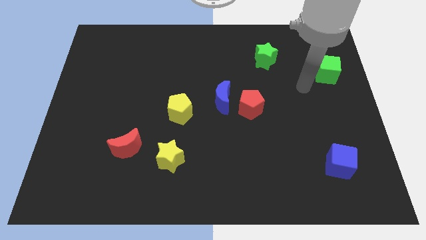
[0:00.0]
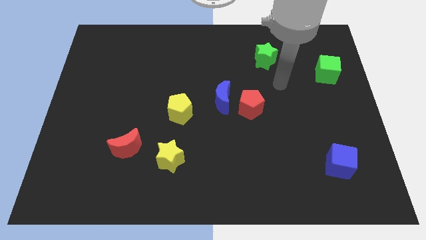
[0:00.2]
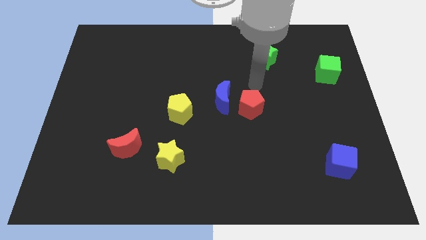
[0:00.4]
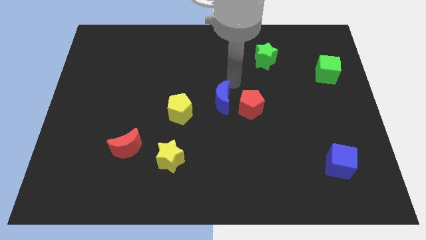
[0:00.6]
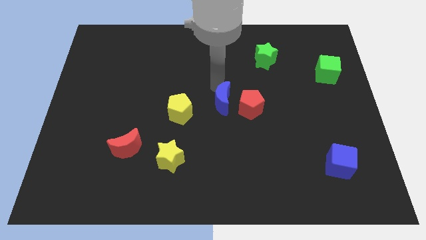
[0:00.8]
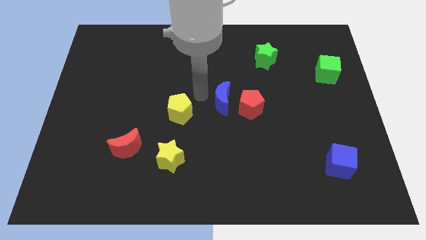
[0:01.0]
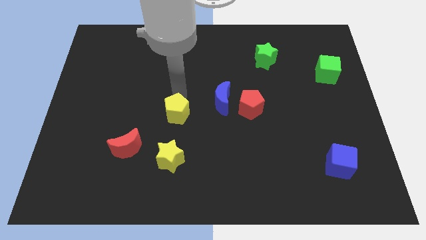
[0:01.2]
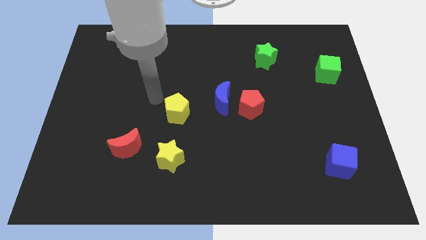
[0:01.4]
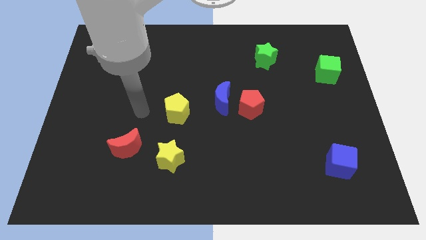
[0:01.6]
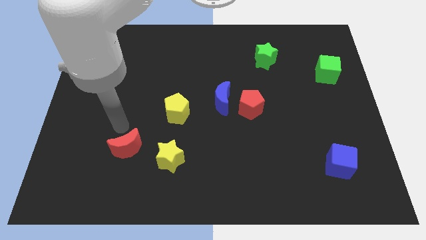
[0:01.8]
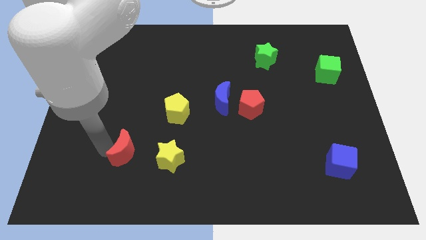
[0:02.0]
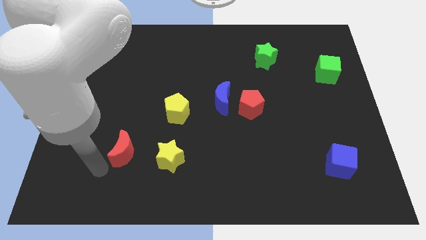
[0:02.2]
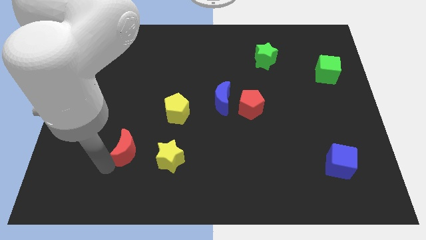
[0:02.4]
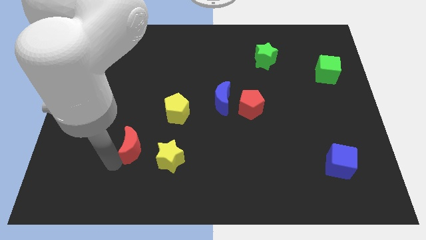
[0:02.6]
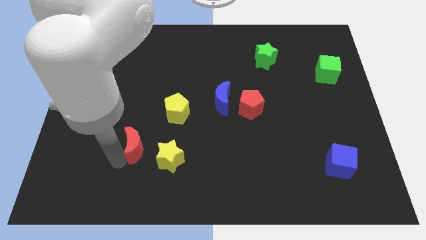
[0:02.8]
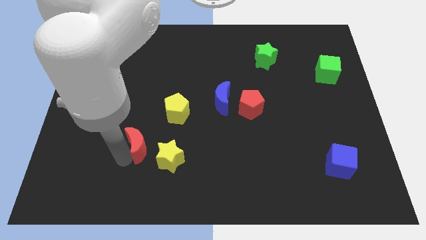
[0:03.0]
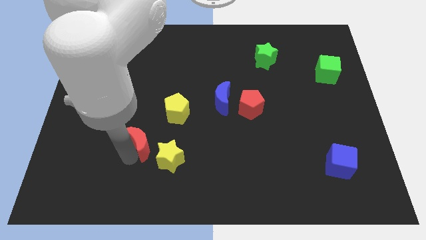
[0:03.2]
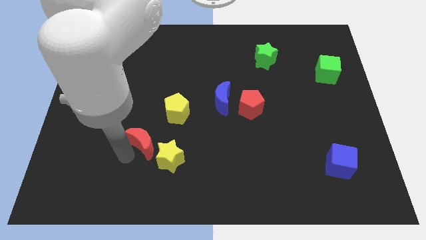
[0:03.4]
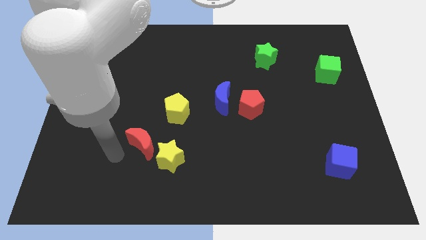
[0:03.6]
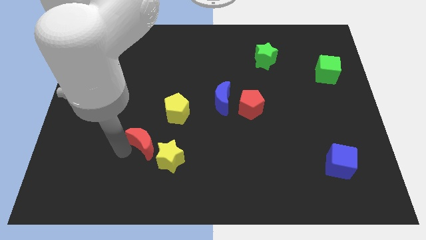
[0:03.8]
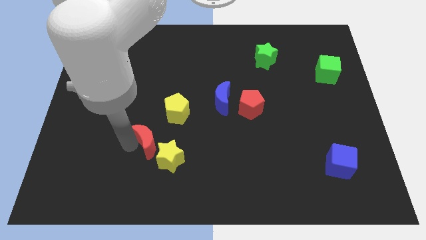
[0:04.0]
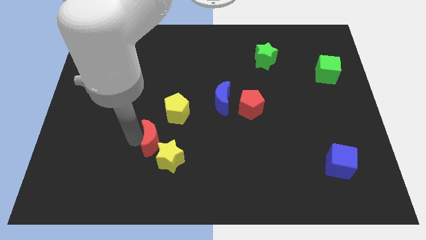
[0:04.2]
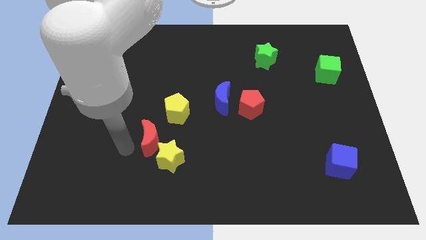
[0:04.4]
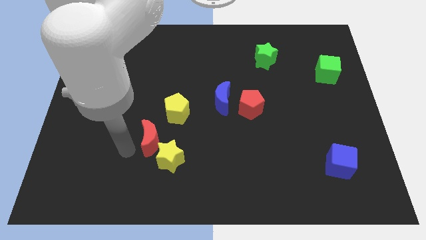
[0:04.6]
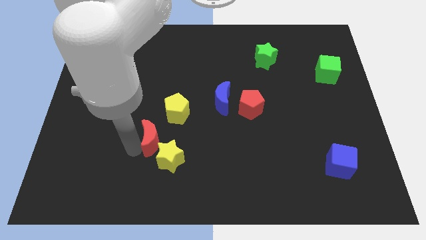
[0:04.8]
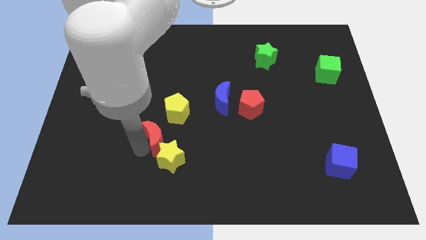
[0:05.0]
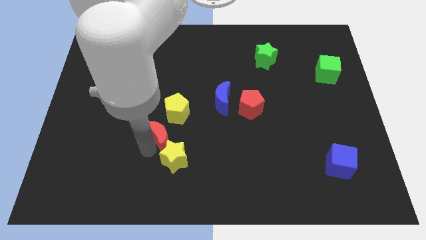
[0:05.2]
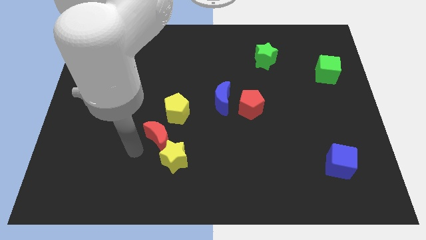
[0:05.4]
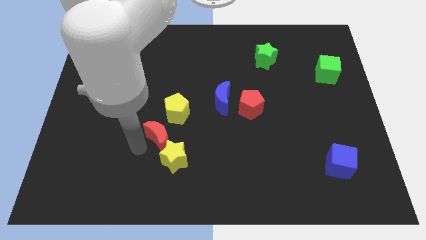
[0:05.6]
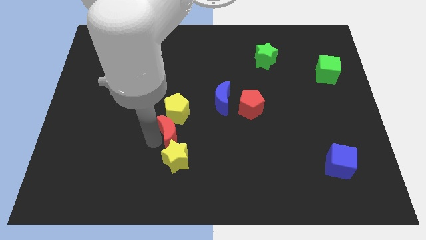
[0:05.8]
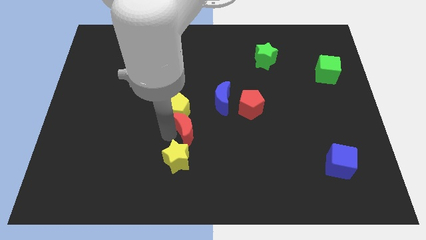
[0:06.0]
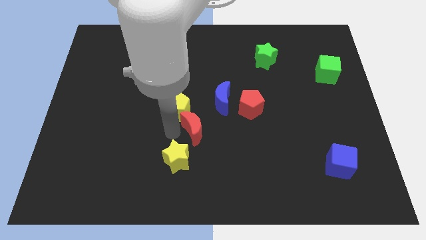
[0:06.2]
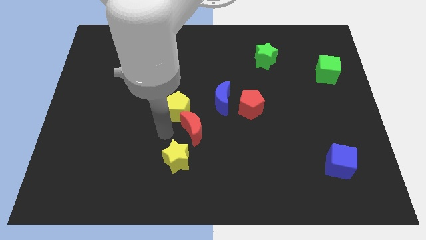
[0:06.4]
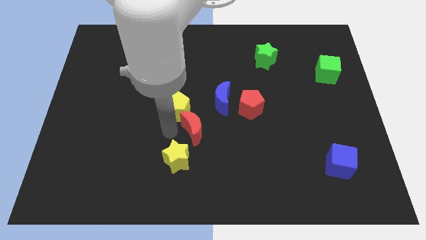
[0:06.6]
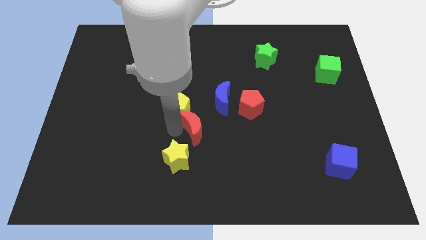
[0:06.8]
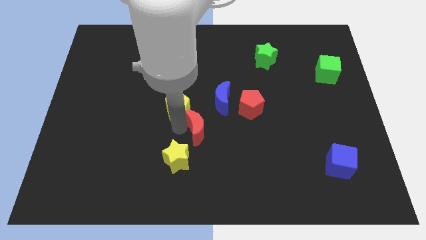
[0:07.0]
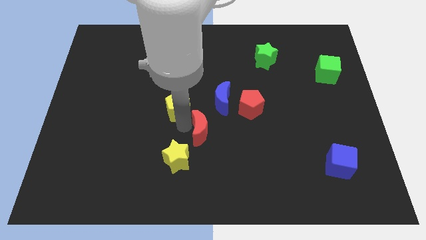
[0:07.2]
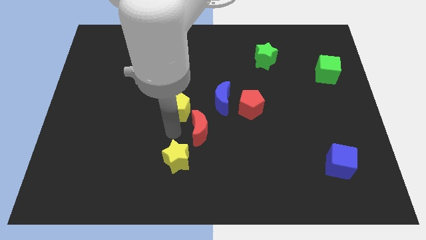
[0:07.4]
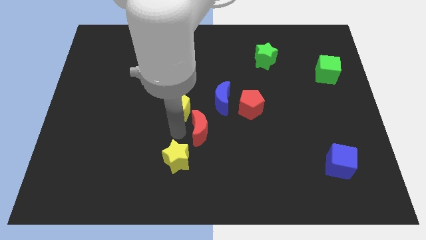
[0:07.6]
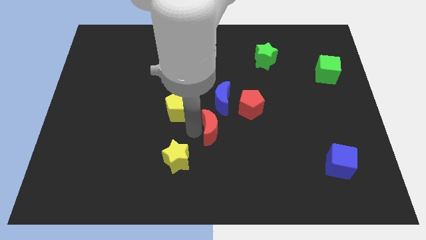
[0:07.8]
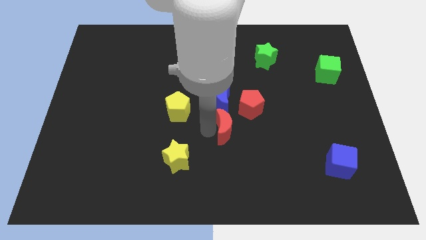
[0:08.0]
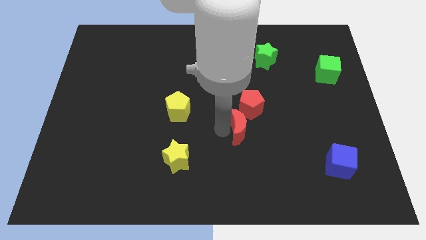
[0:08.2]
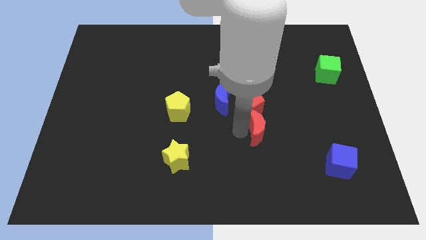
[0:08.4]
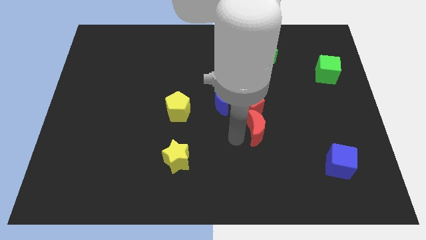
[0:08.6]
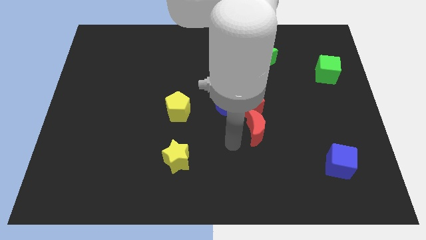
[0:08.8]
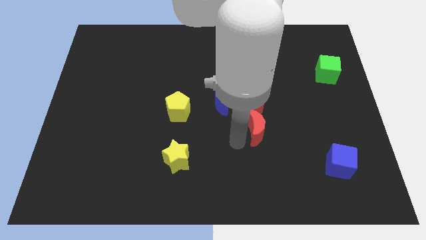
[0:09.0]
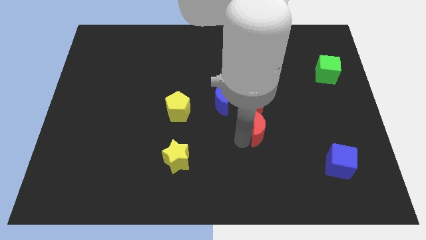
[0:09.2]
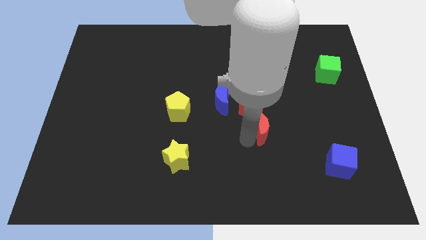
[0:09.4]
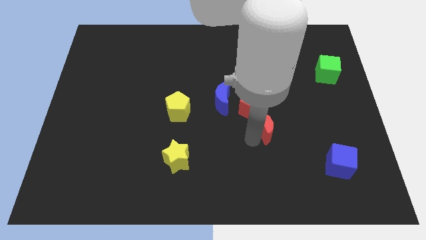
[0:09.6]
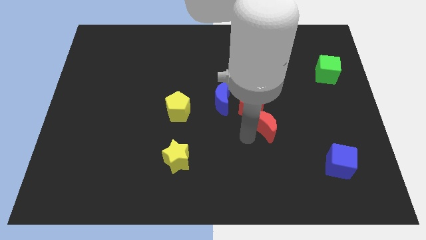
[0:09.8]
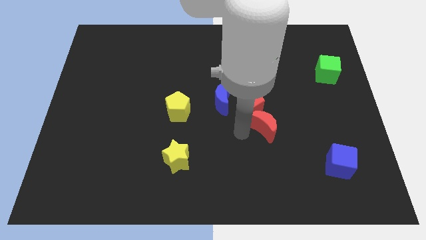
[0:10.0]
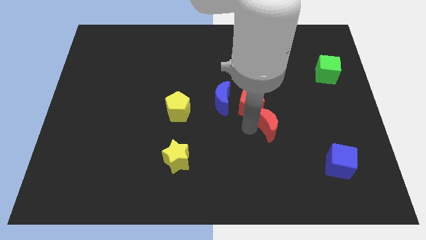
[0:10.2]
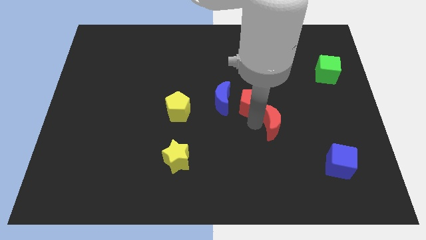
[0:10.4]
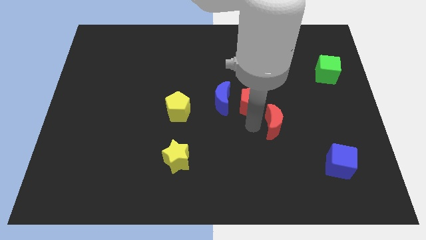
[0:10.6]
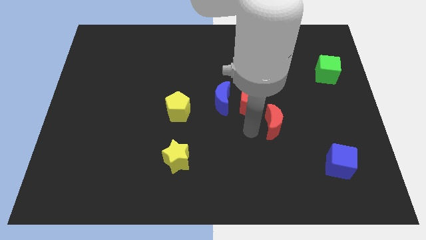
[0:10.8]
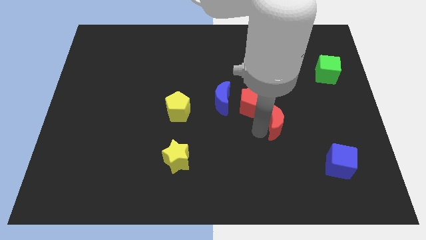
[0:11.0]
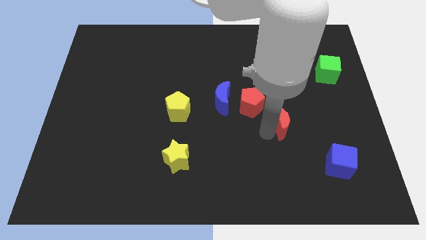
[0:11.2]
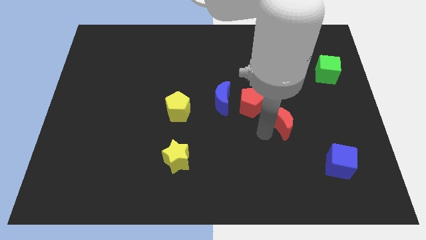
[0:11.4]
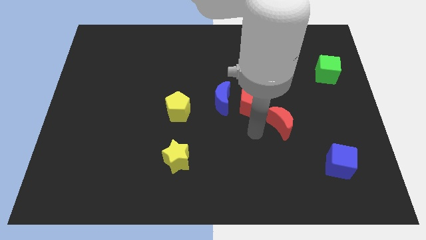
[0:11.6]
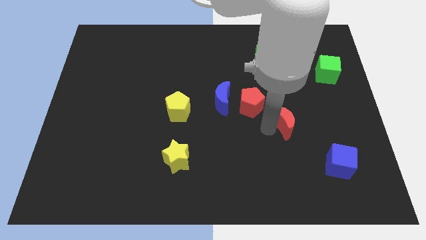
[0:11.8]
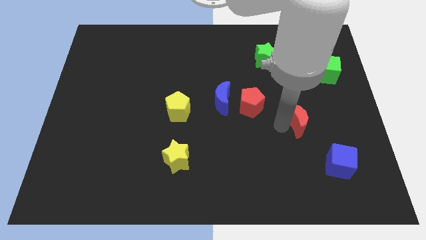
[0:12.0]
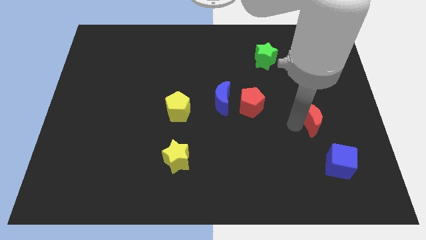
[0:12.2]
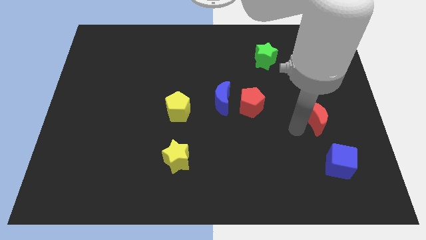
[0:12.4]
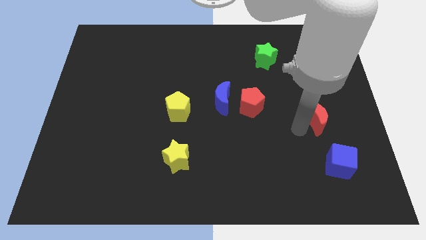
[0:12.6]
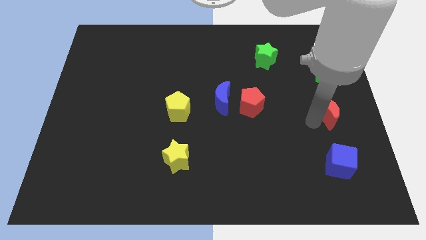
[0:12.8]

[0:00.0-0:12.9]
push the red moon to the right side
